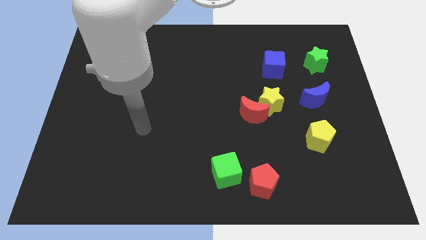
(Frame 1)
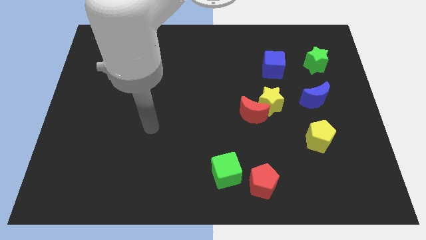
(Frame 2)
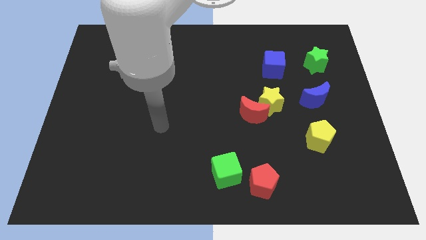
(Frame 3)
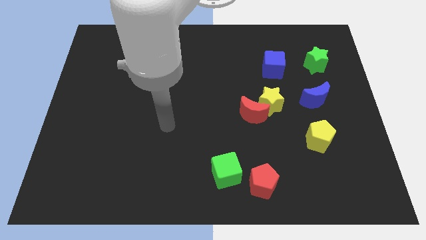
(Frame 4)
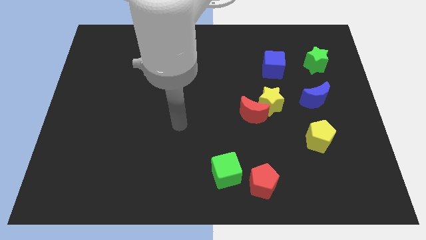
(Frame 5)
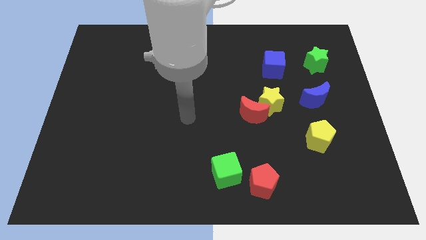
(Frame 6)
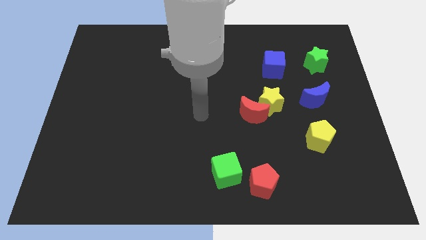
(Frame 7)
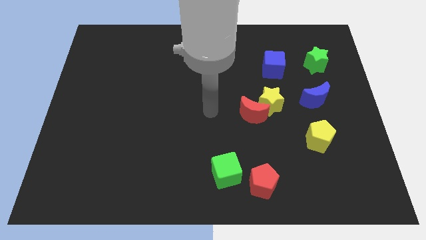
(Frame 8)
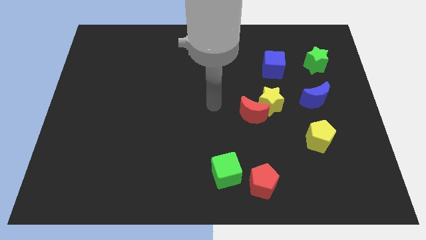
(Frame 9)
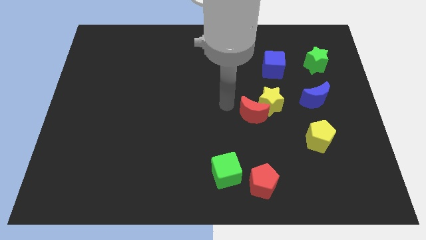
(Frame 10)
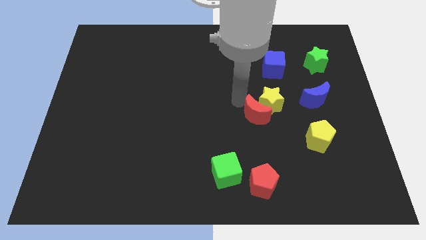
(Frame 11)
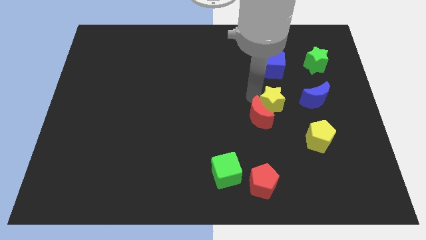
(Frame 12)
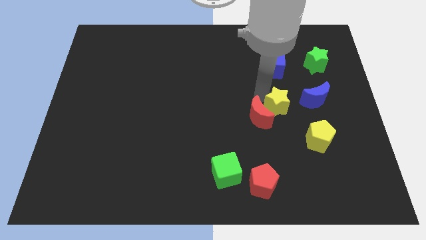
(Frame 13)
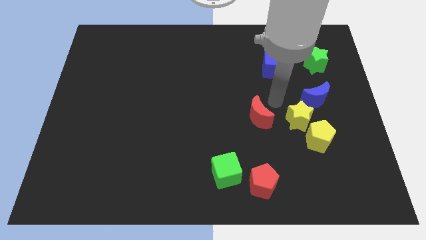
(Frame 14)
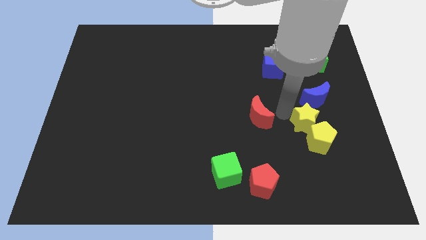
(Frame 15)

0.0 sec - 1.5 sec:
separate the red moon from the yellow star

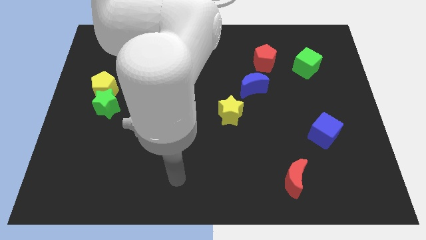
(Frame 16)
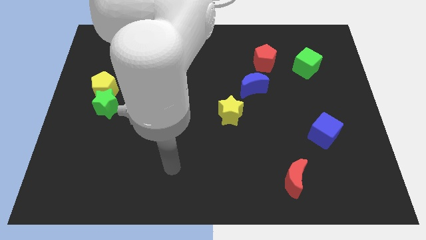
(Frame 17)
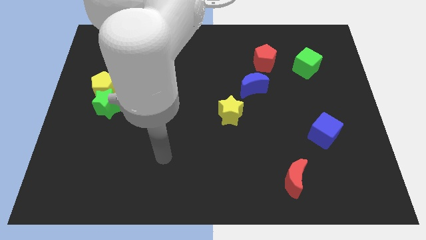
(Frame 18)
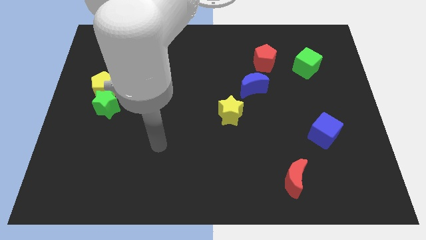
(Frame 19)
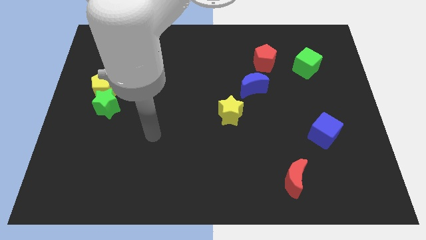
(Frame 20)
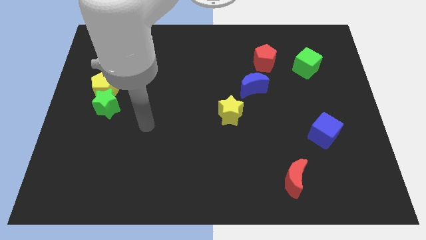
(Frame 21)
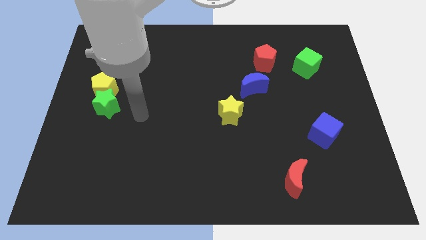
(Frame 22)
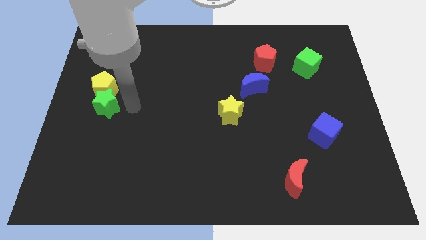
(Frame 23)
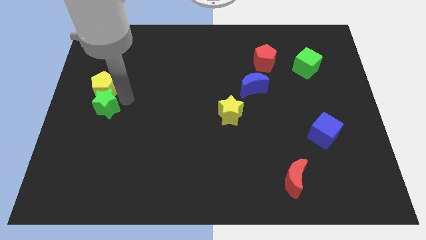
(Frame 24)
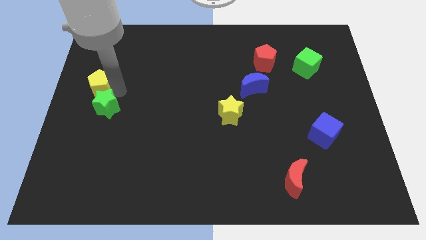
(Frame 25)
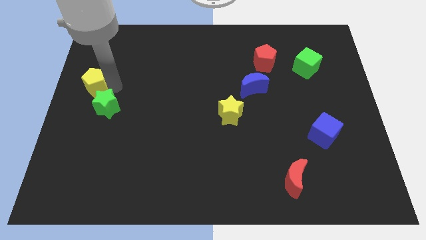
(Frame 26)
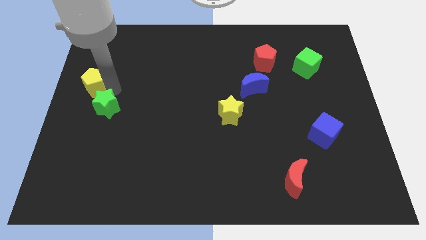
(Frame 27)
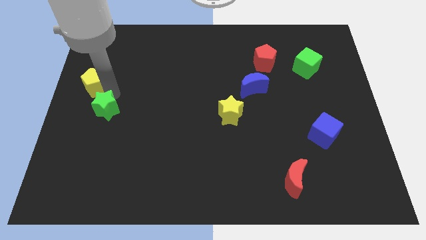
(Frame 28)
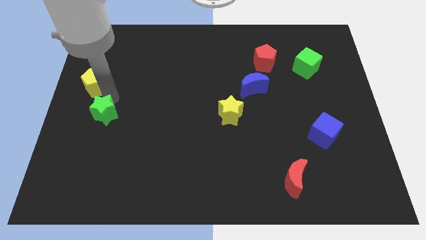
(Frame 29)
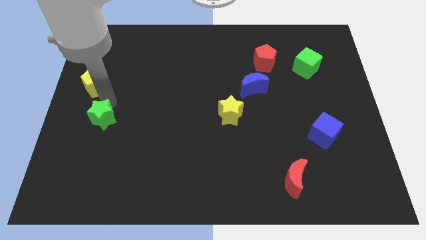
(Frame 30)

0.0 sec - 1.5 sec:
separate the green star from the yellow pentagon

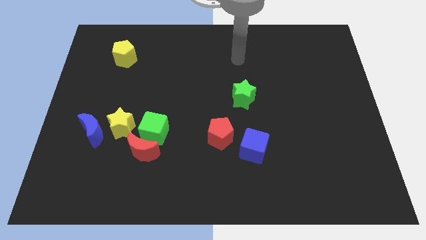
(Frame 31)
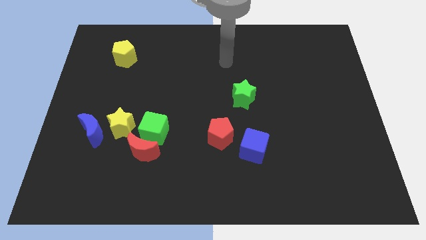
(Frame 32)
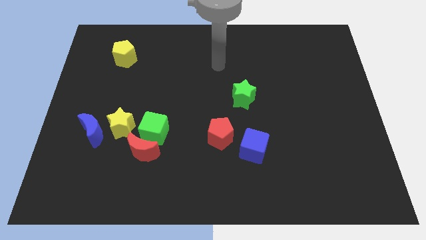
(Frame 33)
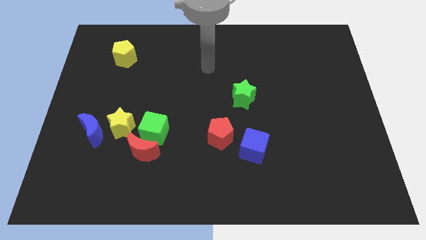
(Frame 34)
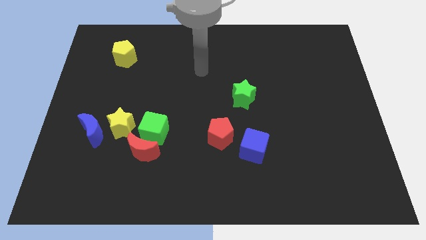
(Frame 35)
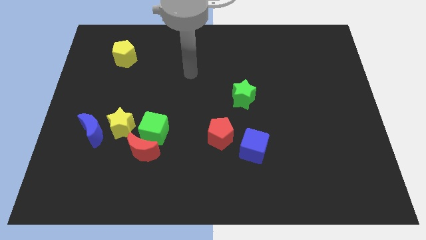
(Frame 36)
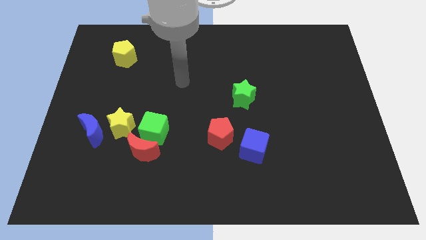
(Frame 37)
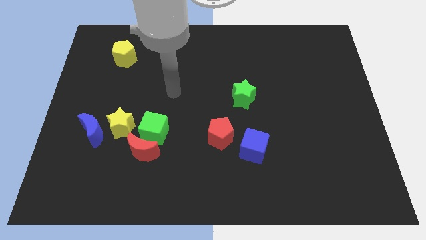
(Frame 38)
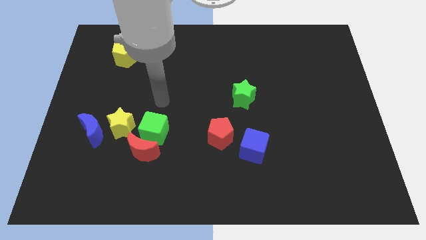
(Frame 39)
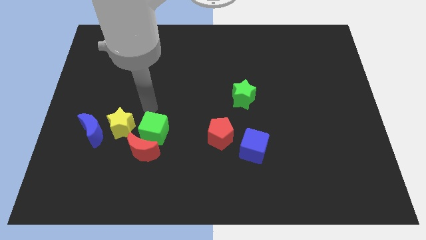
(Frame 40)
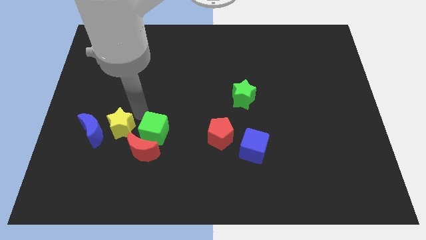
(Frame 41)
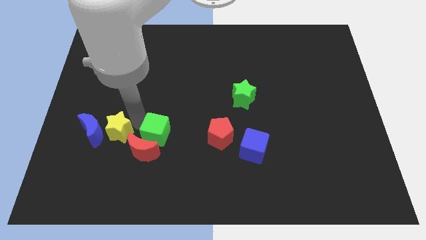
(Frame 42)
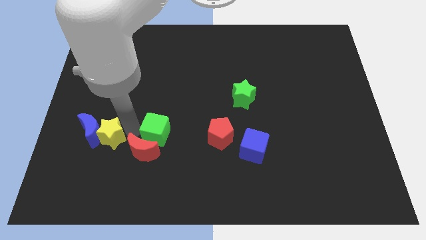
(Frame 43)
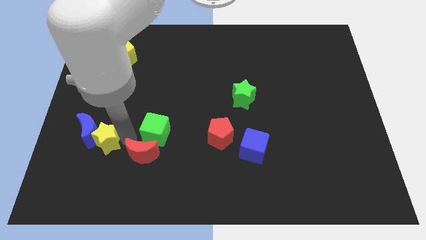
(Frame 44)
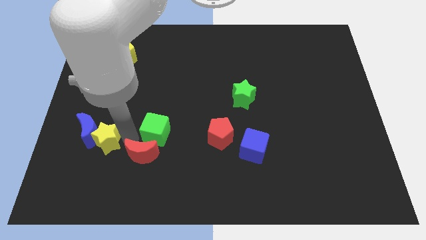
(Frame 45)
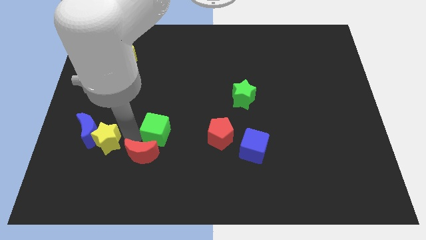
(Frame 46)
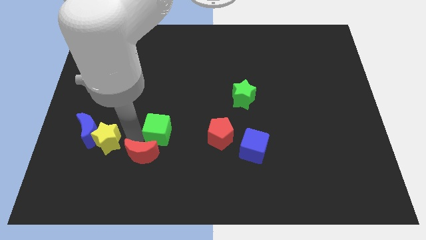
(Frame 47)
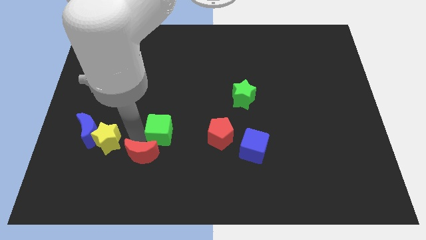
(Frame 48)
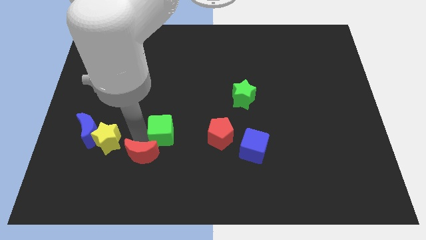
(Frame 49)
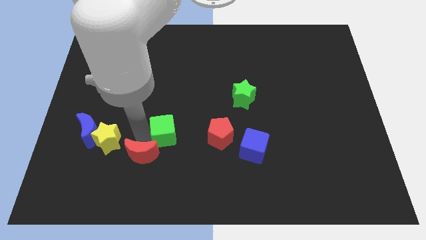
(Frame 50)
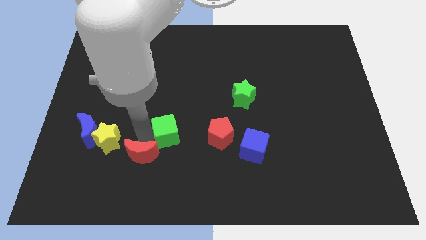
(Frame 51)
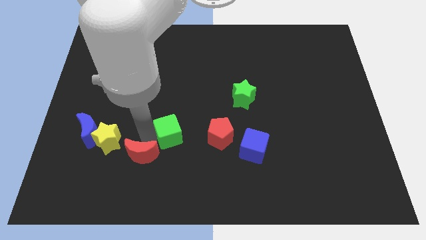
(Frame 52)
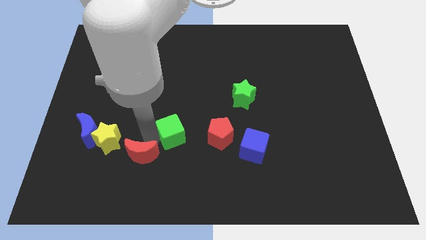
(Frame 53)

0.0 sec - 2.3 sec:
move the green cube away from the red moon and yellow star

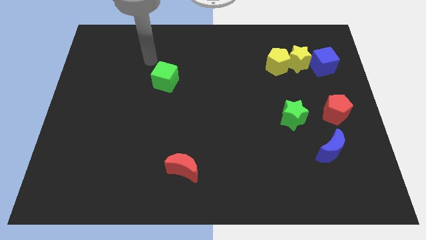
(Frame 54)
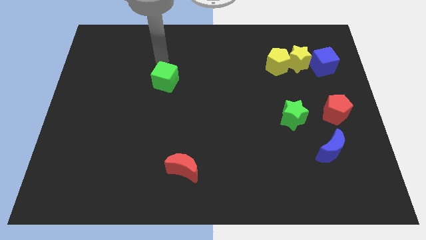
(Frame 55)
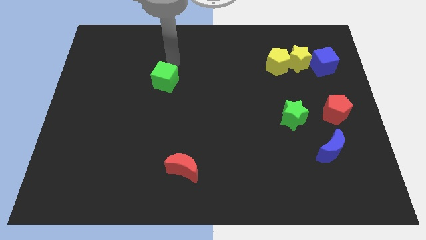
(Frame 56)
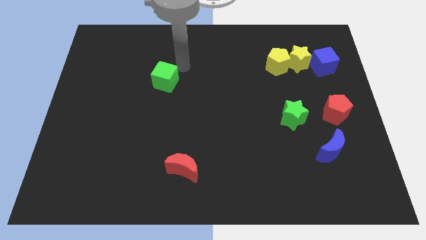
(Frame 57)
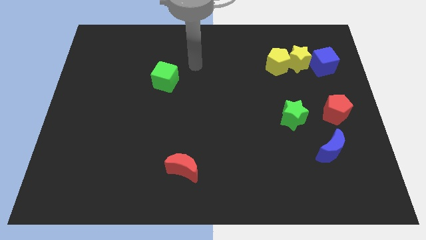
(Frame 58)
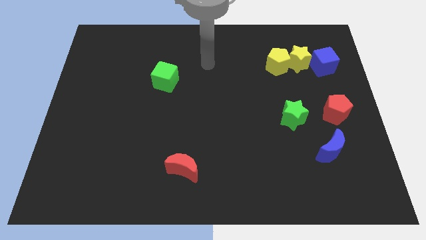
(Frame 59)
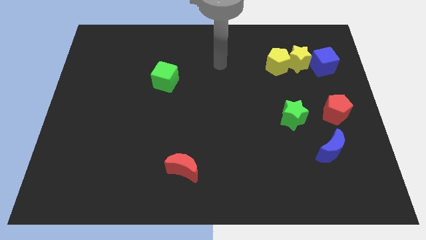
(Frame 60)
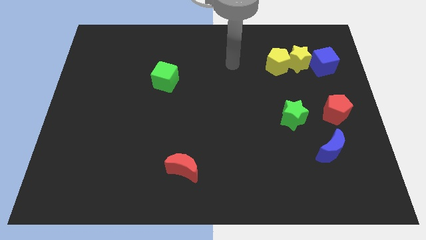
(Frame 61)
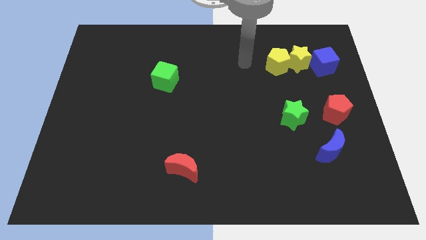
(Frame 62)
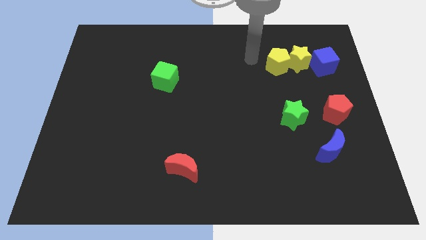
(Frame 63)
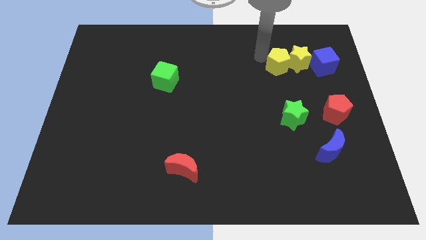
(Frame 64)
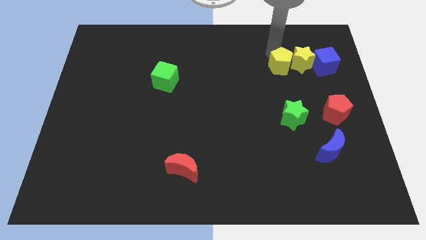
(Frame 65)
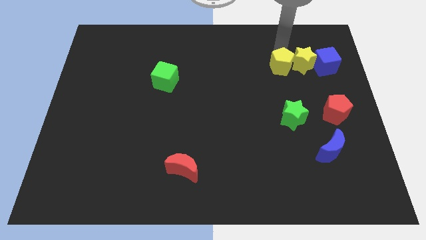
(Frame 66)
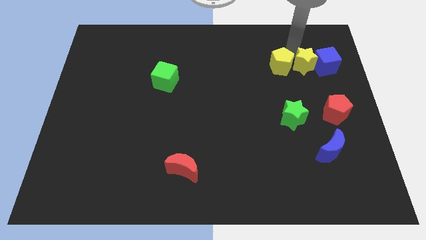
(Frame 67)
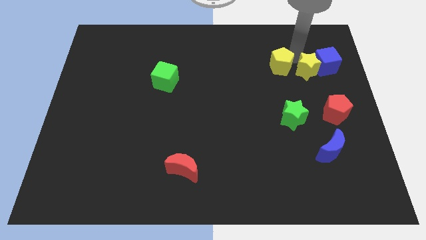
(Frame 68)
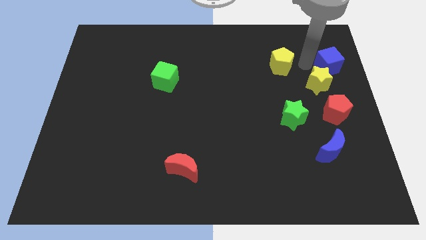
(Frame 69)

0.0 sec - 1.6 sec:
separate the yellow pentagon from the yellow star

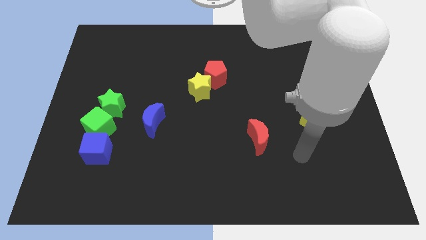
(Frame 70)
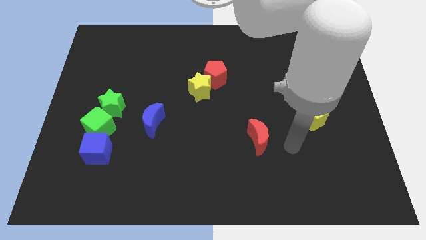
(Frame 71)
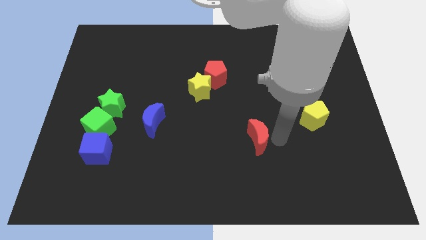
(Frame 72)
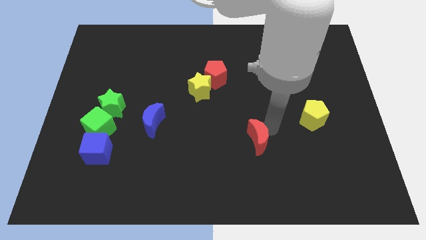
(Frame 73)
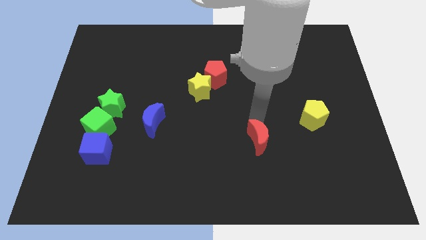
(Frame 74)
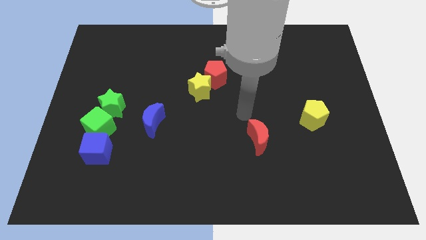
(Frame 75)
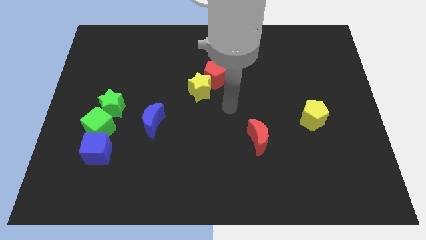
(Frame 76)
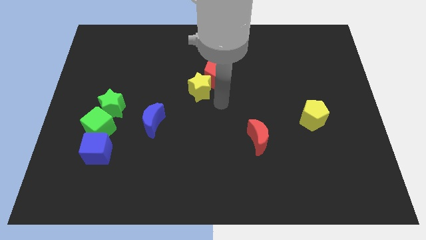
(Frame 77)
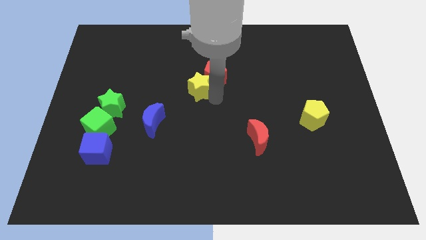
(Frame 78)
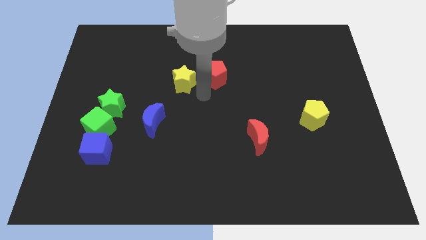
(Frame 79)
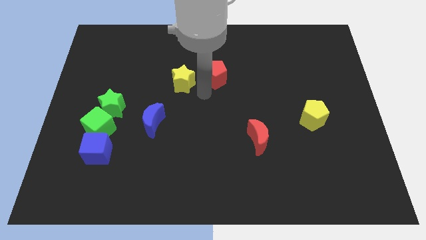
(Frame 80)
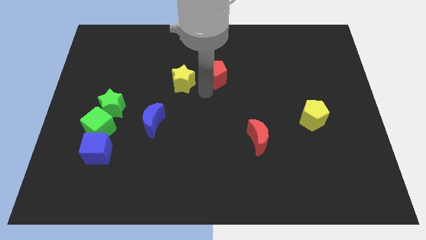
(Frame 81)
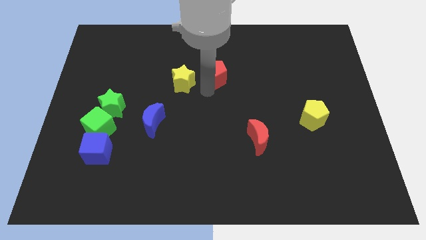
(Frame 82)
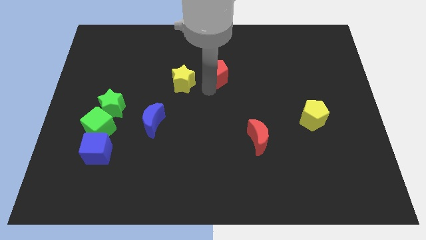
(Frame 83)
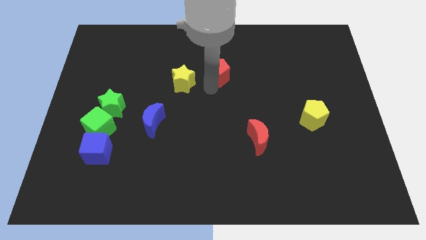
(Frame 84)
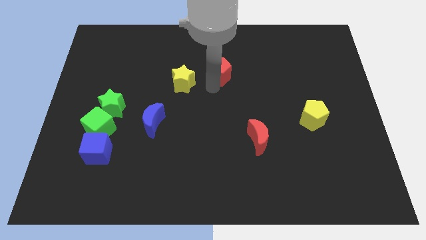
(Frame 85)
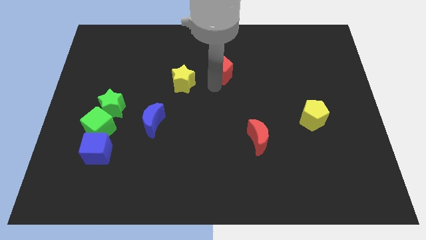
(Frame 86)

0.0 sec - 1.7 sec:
separate the red pentagon from the yellow star

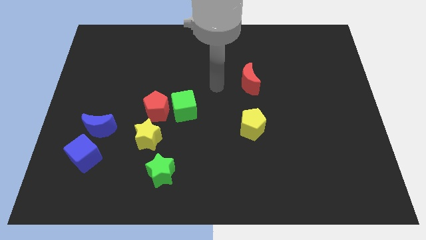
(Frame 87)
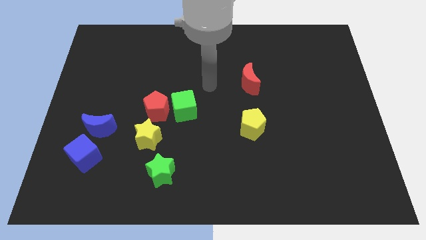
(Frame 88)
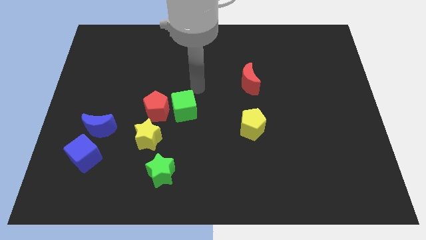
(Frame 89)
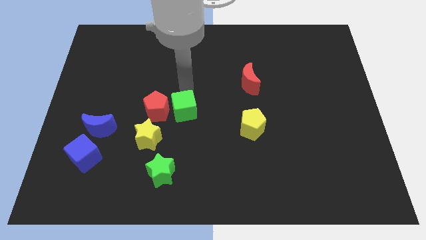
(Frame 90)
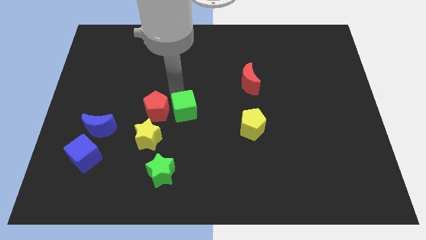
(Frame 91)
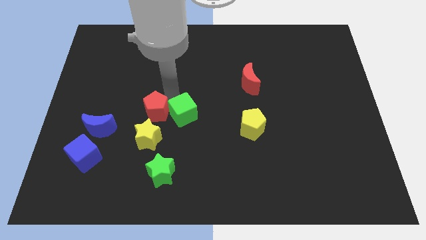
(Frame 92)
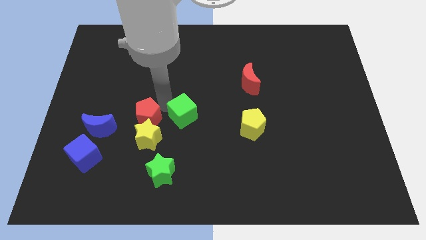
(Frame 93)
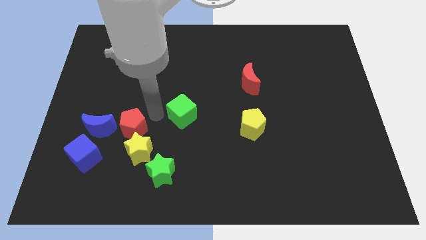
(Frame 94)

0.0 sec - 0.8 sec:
pull the green cube apart from the red pentagon

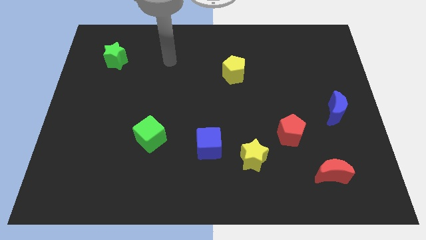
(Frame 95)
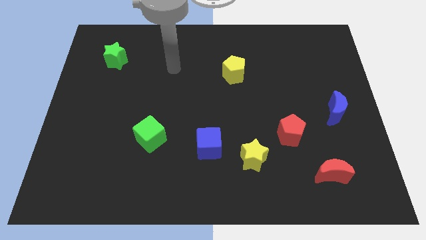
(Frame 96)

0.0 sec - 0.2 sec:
move the blue cube away from the yellow star
